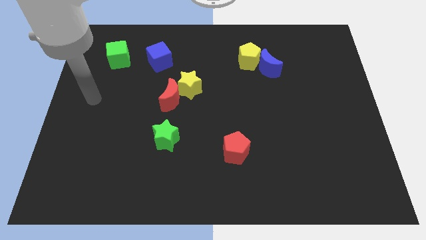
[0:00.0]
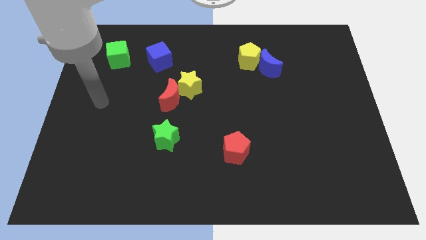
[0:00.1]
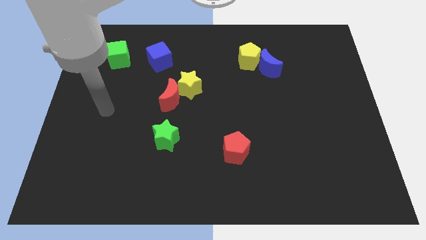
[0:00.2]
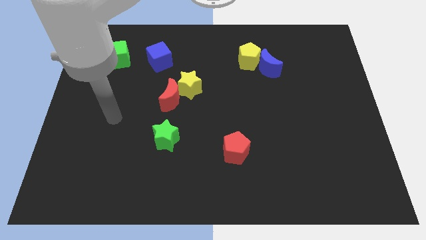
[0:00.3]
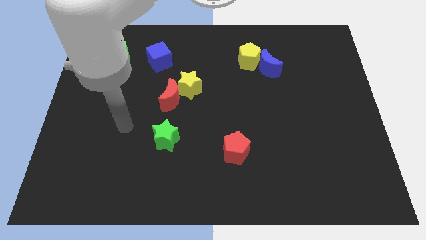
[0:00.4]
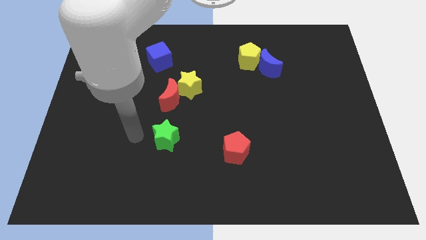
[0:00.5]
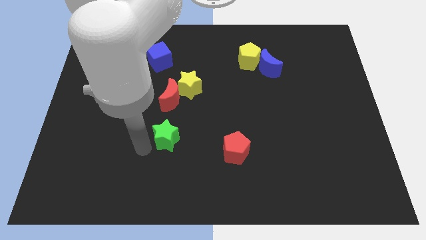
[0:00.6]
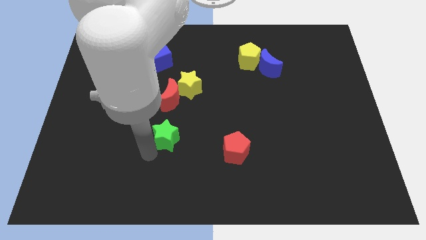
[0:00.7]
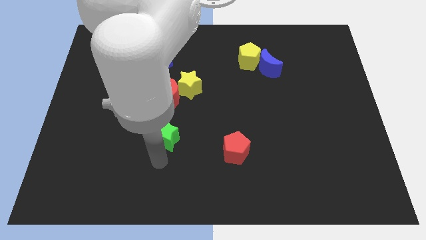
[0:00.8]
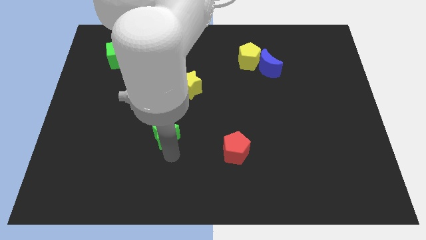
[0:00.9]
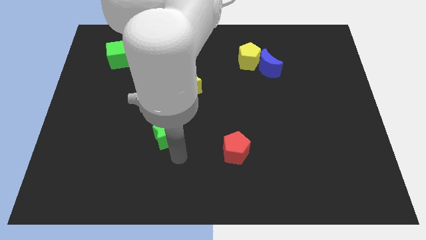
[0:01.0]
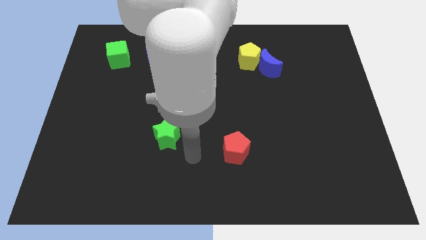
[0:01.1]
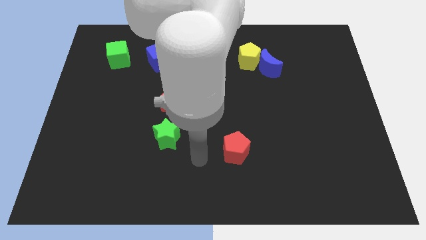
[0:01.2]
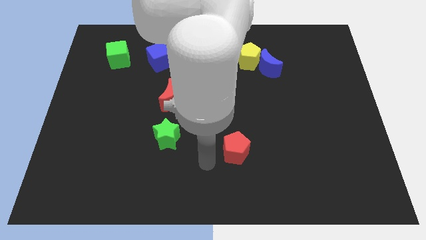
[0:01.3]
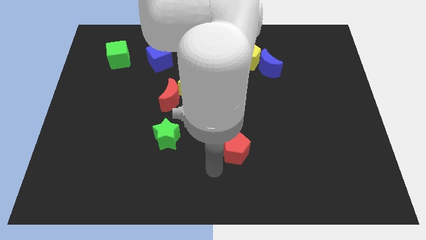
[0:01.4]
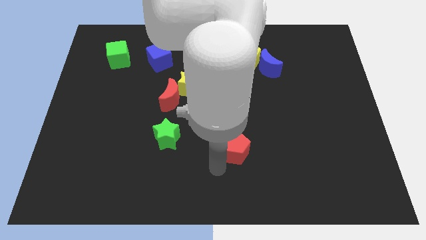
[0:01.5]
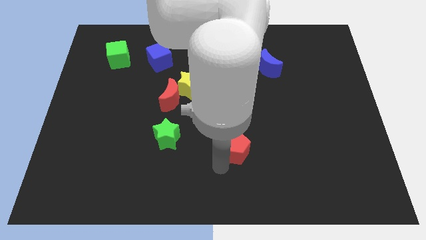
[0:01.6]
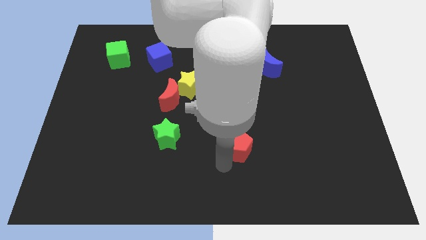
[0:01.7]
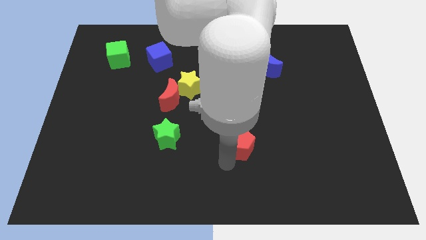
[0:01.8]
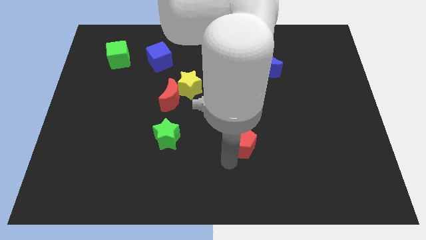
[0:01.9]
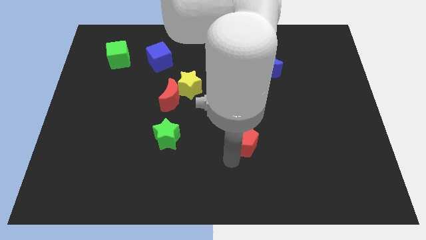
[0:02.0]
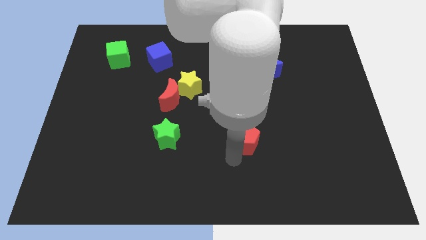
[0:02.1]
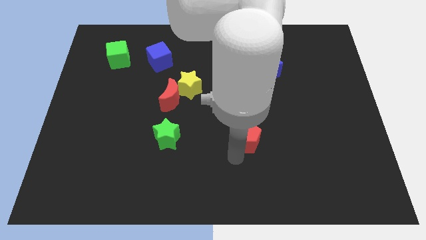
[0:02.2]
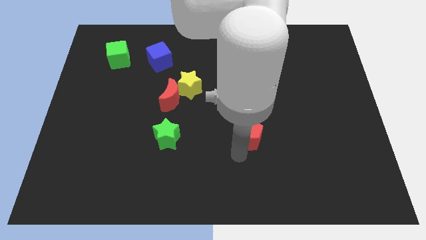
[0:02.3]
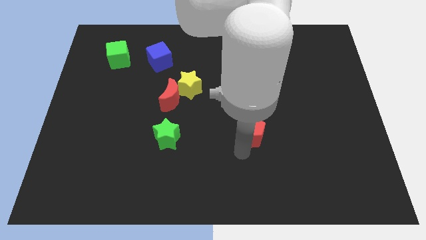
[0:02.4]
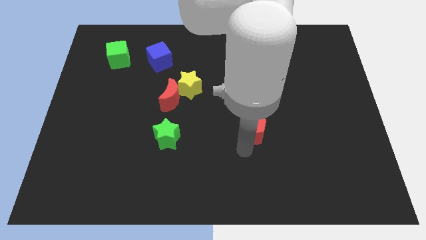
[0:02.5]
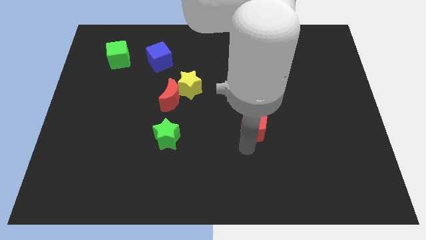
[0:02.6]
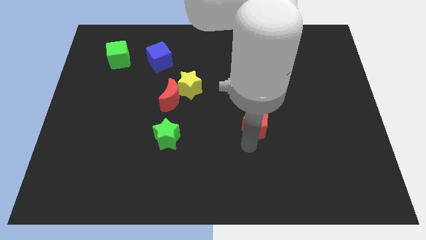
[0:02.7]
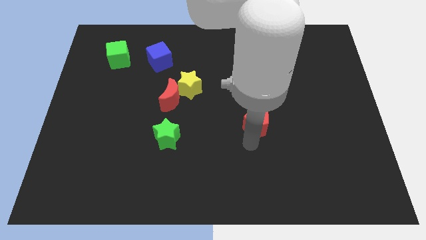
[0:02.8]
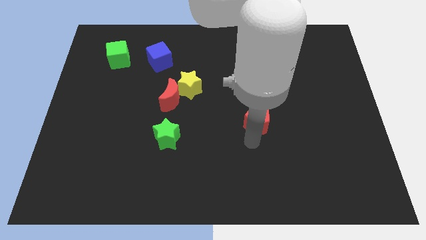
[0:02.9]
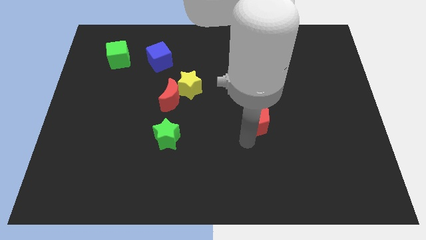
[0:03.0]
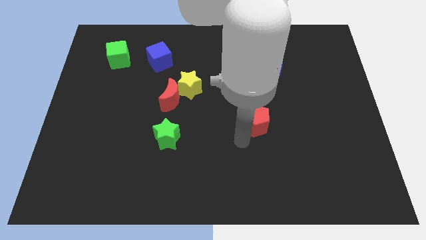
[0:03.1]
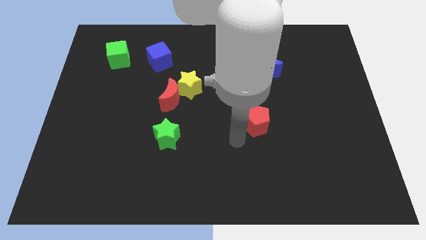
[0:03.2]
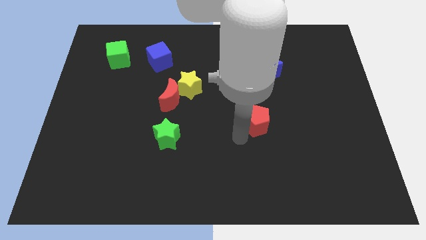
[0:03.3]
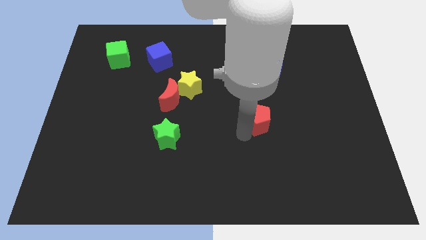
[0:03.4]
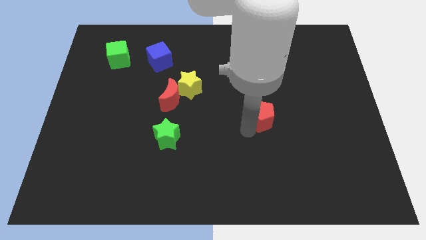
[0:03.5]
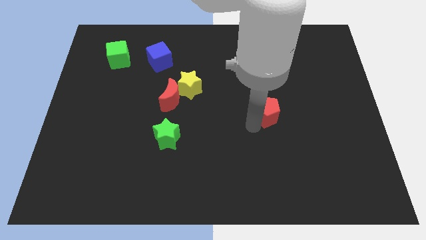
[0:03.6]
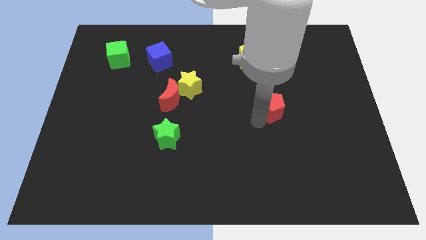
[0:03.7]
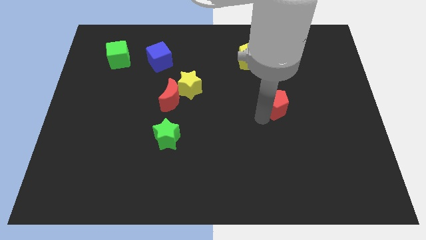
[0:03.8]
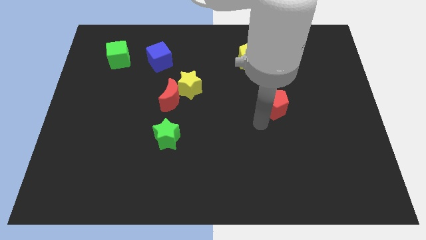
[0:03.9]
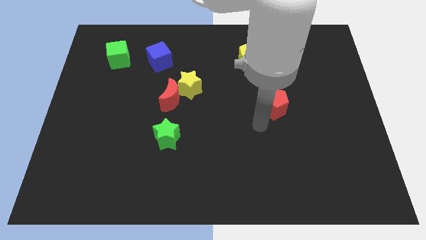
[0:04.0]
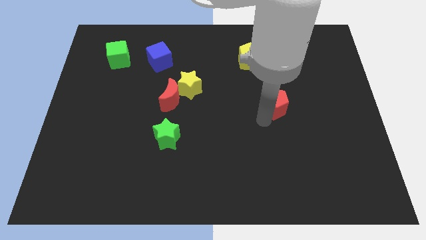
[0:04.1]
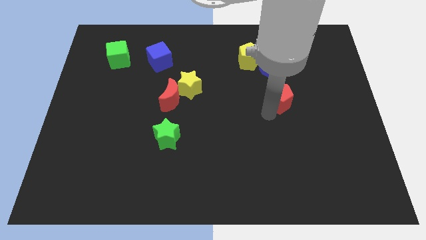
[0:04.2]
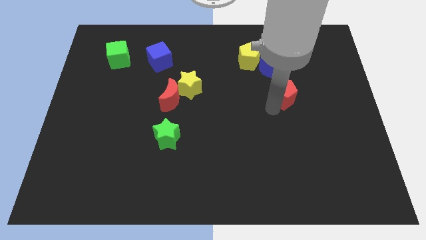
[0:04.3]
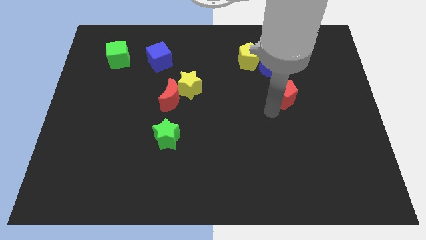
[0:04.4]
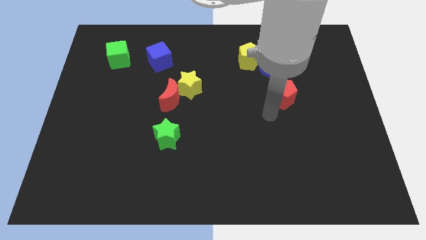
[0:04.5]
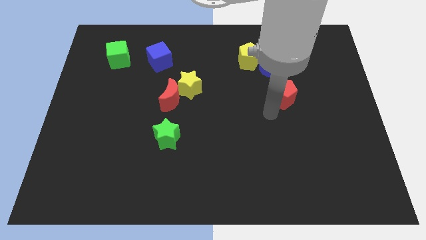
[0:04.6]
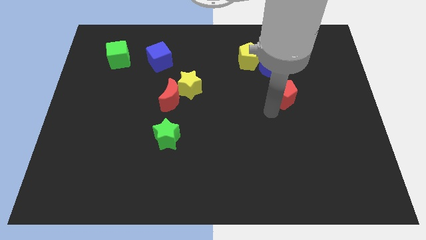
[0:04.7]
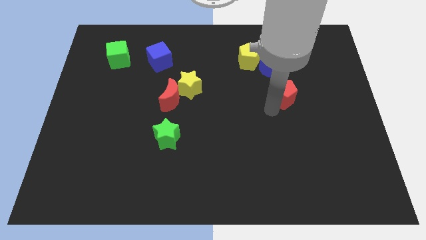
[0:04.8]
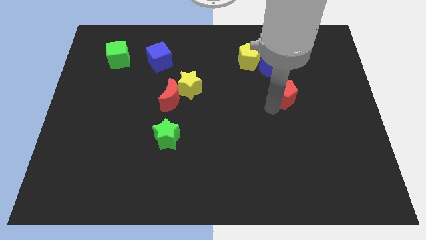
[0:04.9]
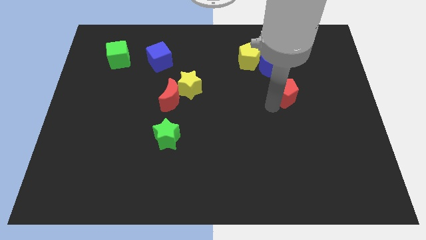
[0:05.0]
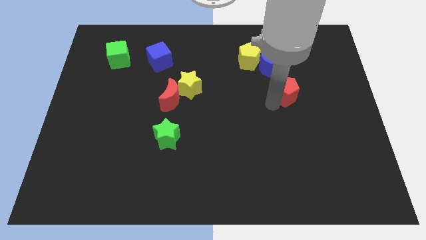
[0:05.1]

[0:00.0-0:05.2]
slide the red pentagon diagonally up and right

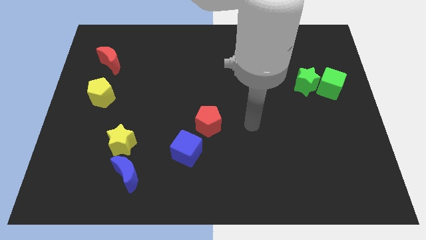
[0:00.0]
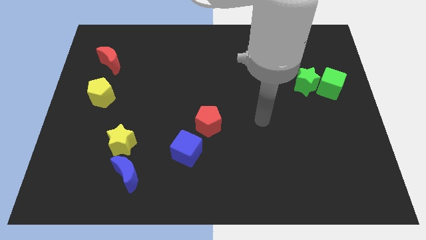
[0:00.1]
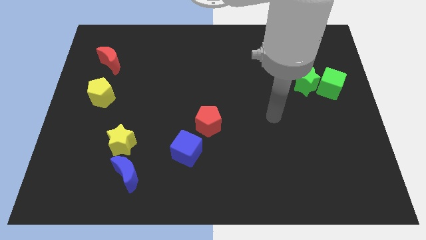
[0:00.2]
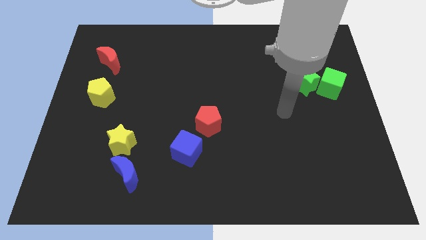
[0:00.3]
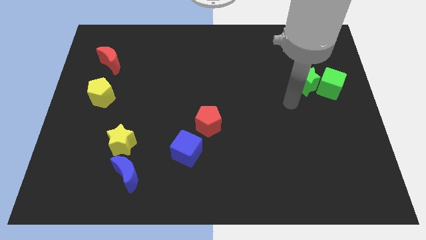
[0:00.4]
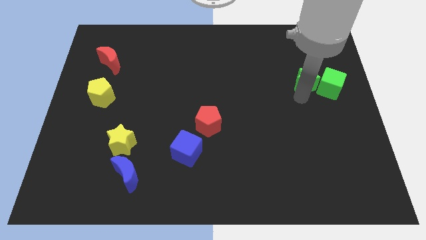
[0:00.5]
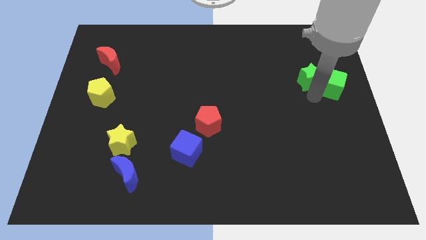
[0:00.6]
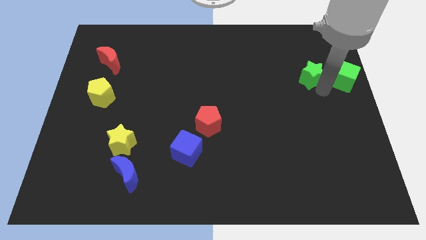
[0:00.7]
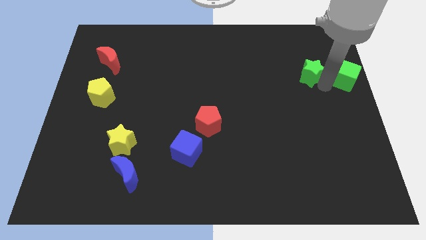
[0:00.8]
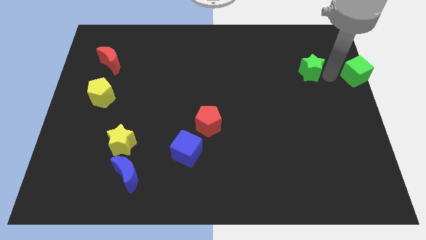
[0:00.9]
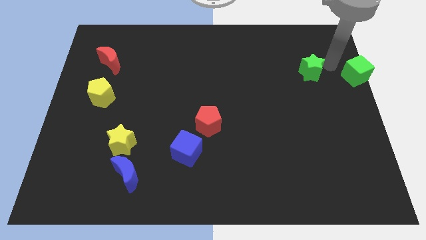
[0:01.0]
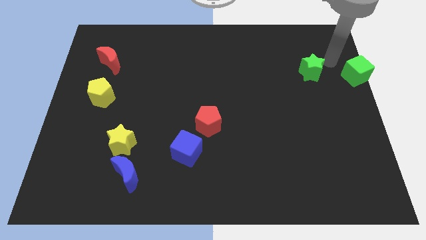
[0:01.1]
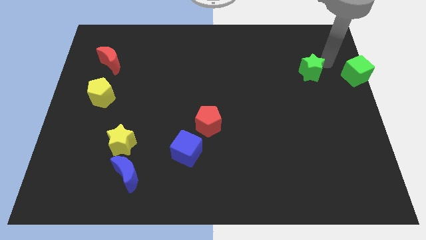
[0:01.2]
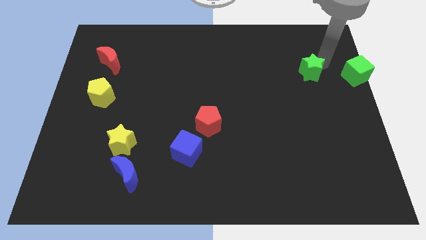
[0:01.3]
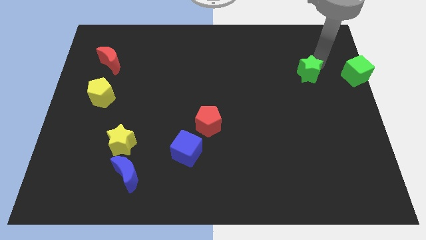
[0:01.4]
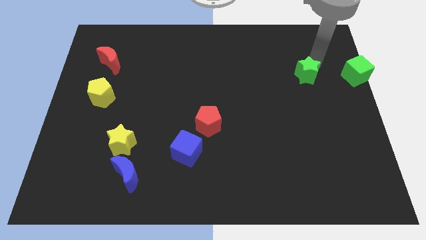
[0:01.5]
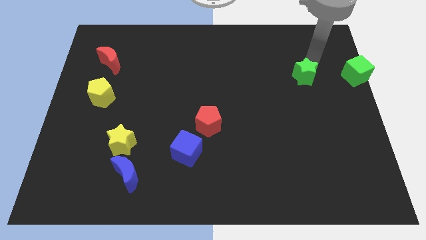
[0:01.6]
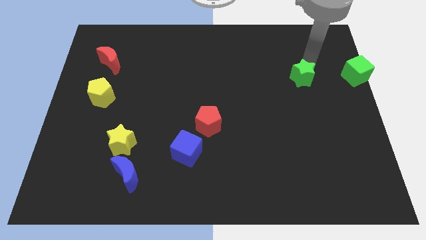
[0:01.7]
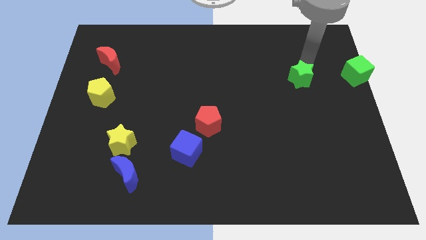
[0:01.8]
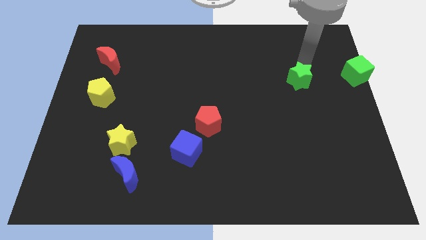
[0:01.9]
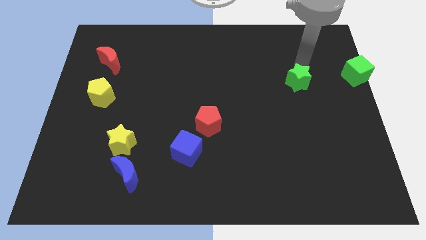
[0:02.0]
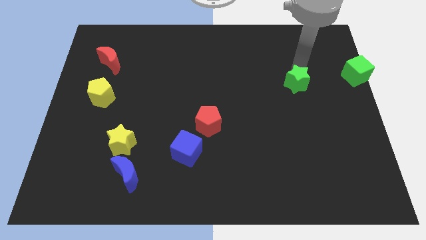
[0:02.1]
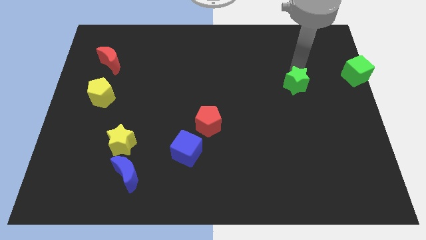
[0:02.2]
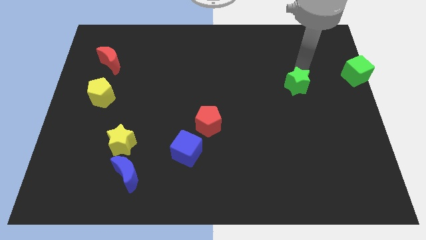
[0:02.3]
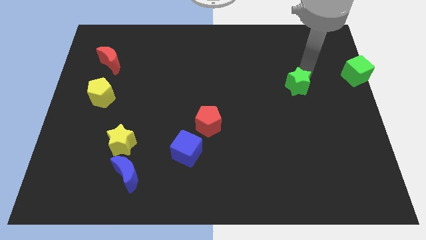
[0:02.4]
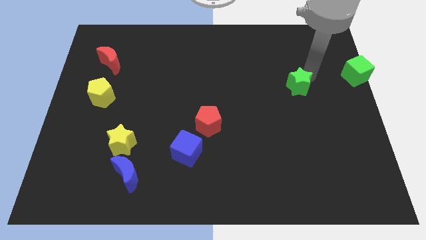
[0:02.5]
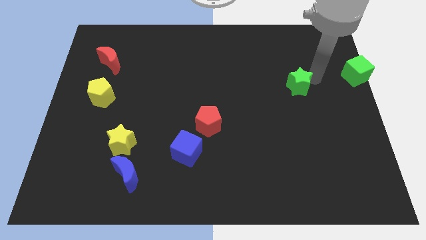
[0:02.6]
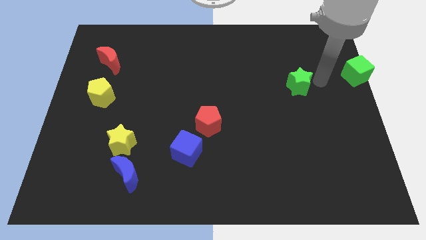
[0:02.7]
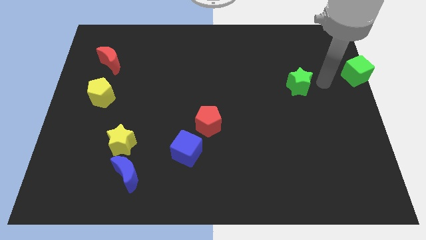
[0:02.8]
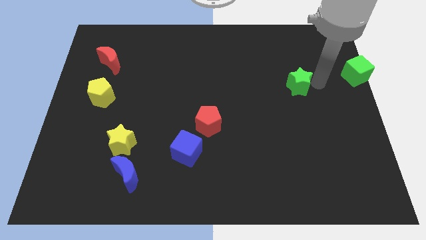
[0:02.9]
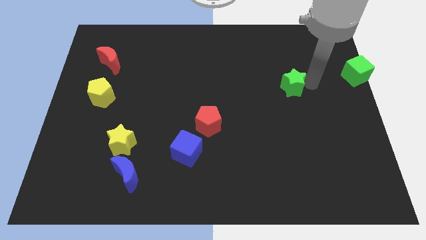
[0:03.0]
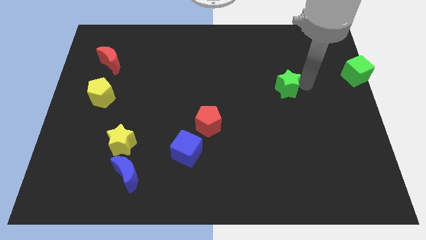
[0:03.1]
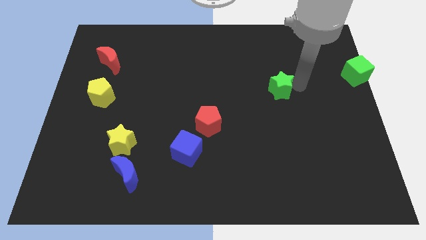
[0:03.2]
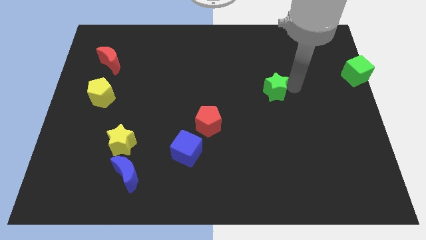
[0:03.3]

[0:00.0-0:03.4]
slightly push the green star to the left
